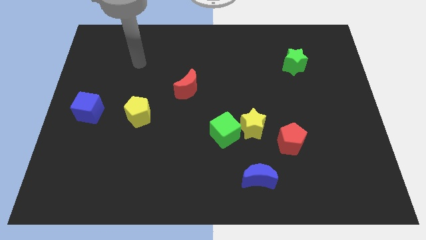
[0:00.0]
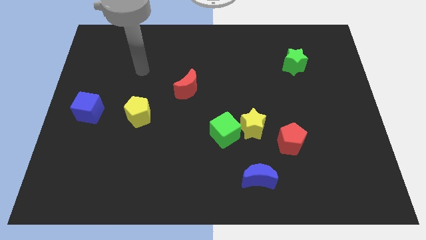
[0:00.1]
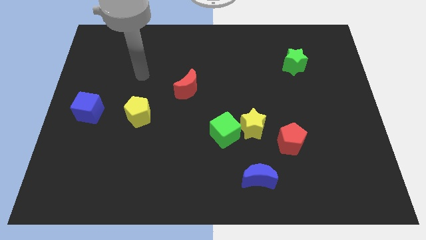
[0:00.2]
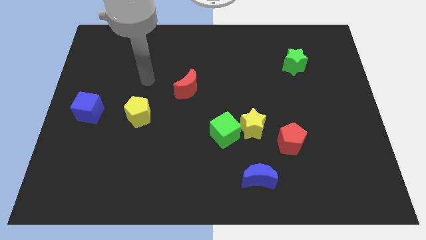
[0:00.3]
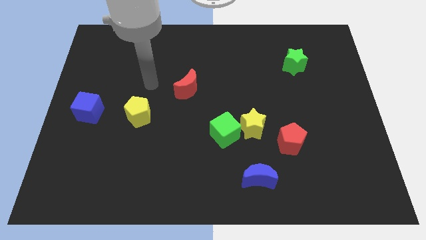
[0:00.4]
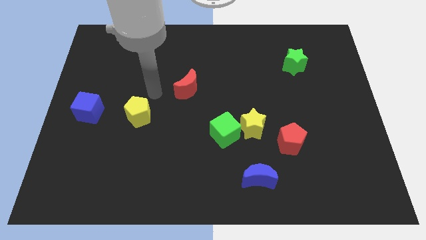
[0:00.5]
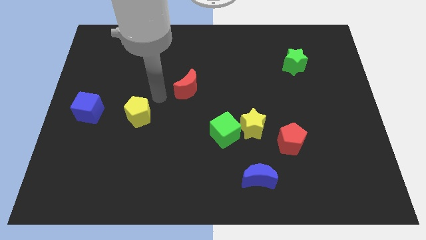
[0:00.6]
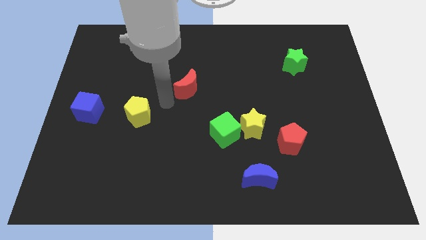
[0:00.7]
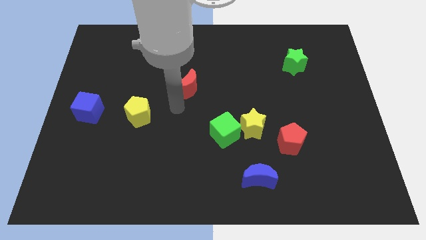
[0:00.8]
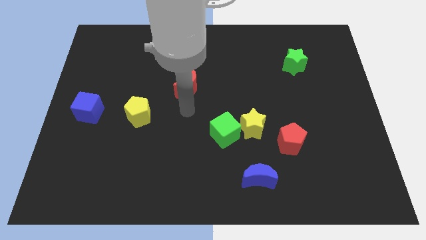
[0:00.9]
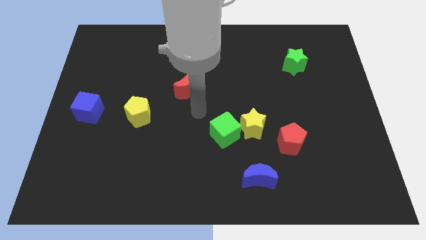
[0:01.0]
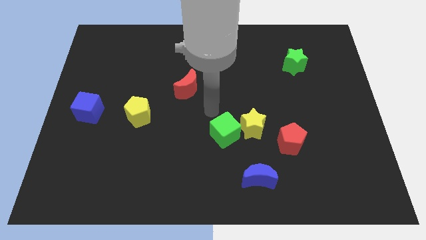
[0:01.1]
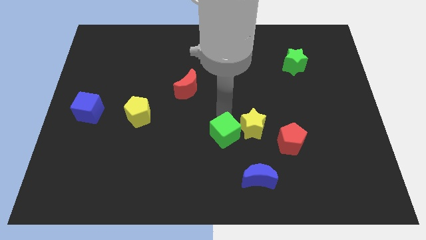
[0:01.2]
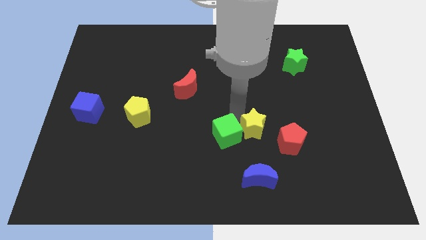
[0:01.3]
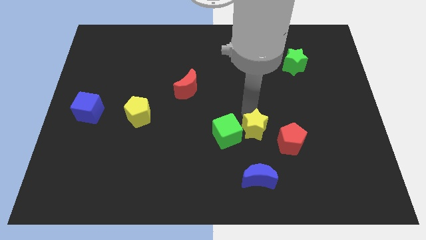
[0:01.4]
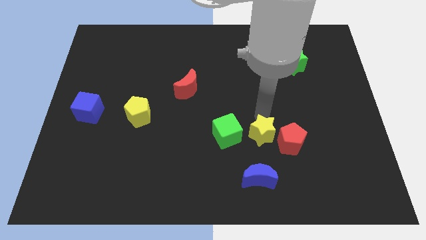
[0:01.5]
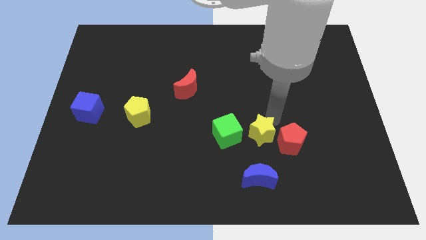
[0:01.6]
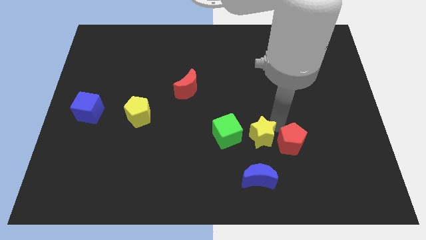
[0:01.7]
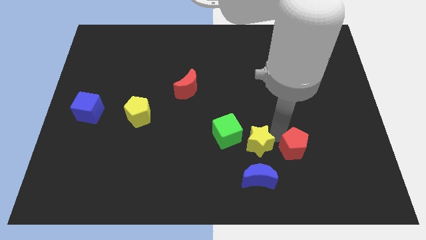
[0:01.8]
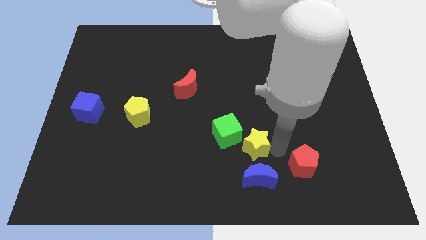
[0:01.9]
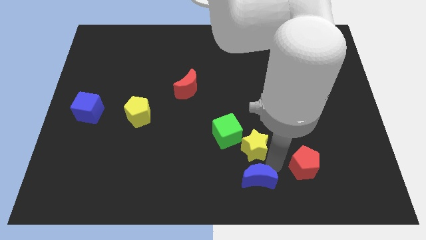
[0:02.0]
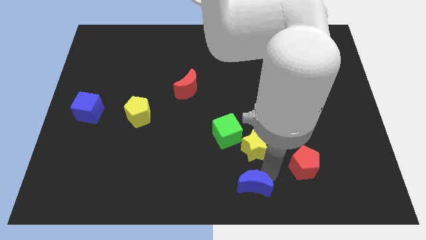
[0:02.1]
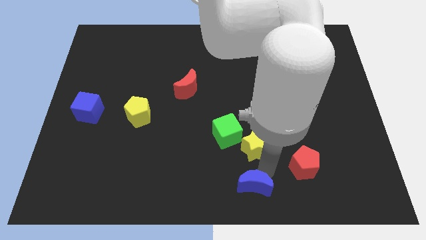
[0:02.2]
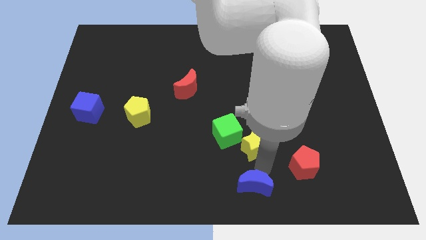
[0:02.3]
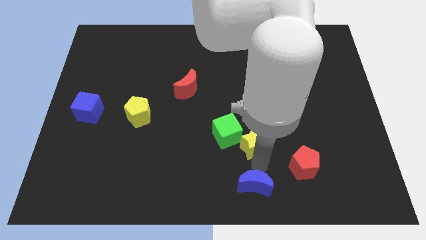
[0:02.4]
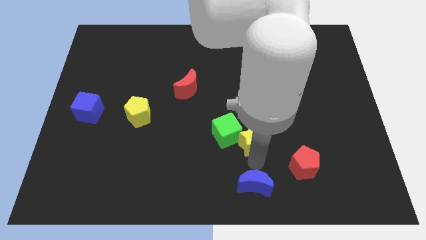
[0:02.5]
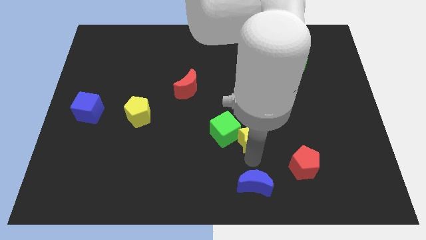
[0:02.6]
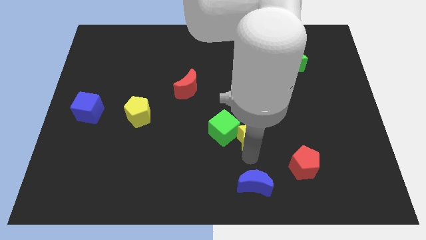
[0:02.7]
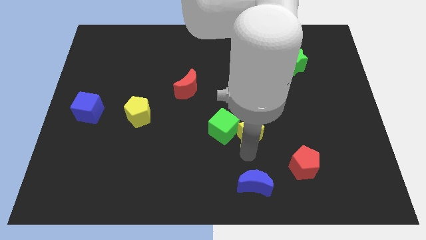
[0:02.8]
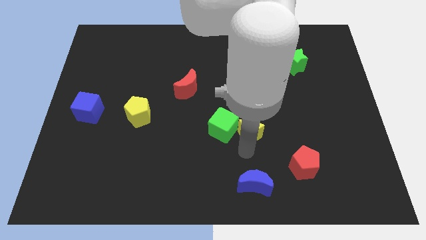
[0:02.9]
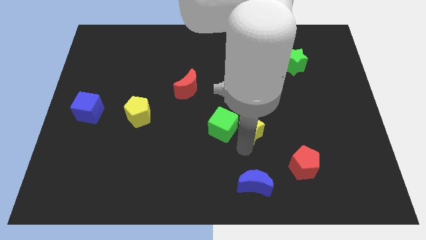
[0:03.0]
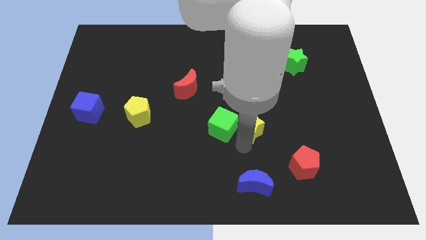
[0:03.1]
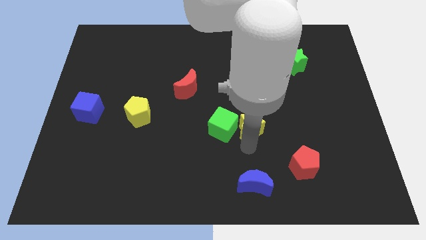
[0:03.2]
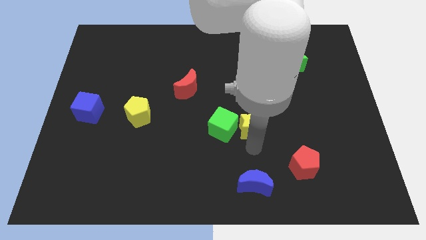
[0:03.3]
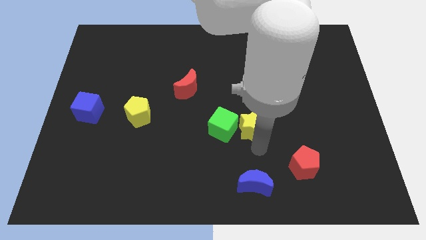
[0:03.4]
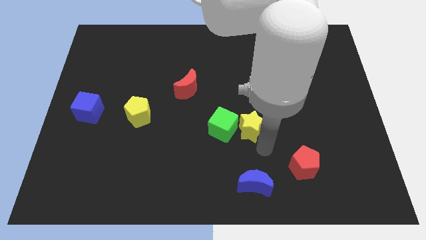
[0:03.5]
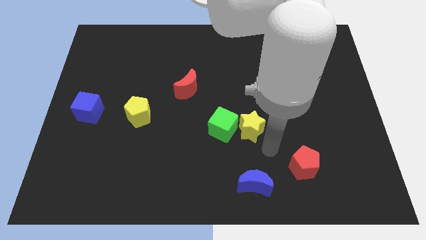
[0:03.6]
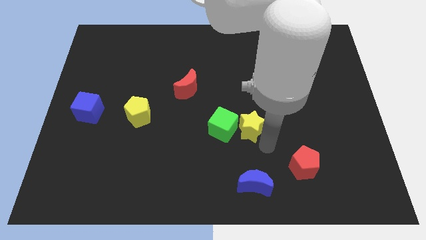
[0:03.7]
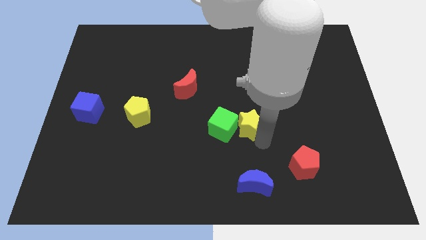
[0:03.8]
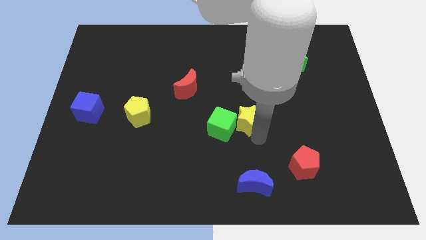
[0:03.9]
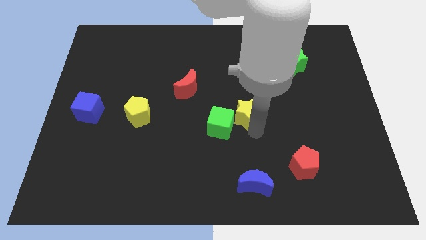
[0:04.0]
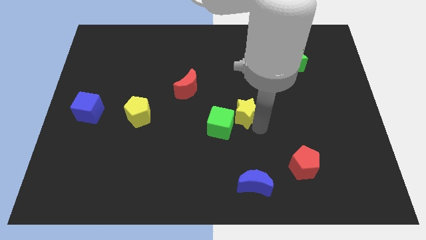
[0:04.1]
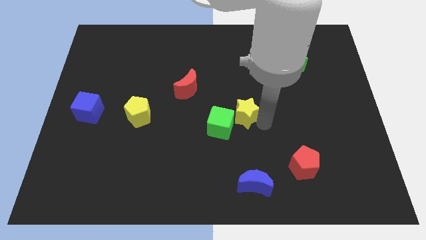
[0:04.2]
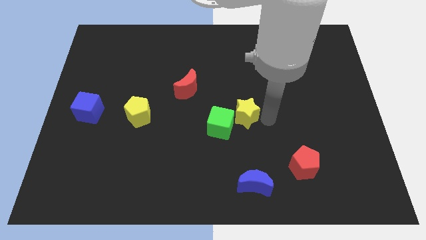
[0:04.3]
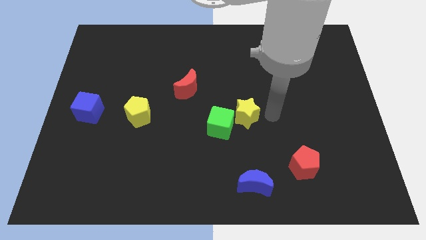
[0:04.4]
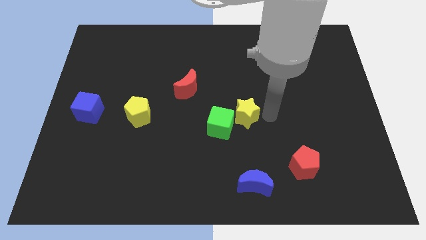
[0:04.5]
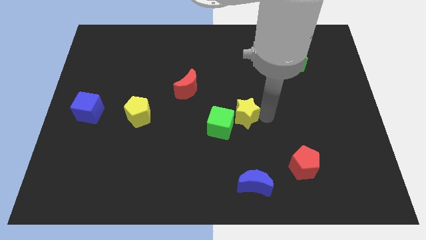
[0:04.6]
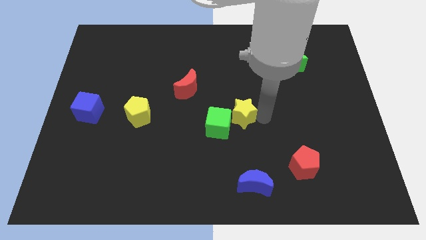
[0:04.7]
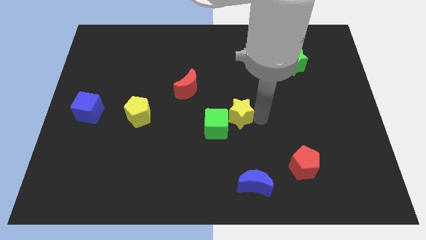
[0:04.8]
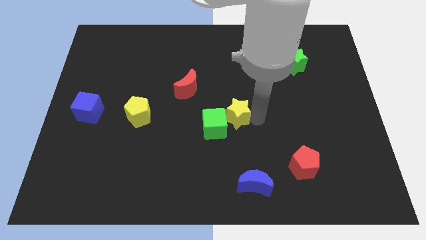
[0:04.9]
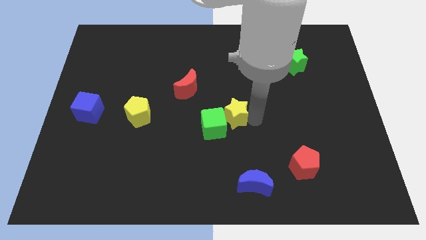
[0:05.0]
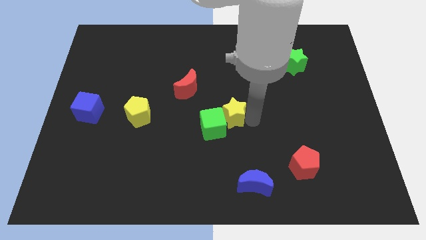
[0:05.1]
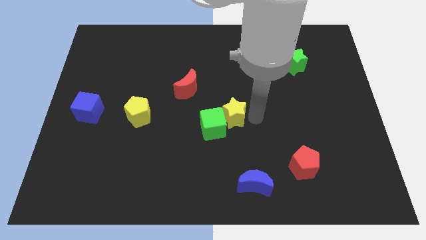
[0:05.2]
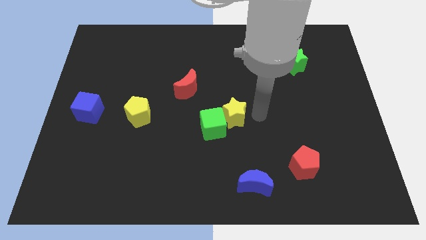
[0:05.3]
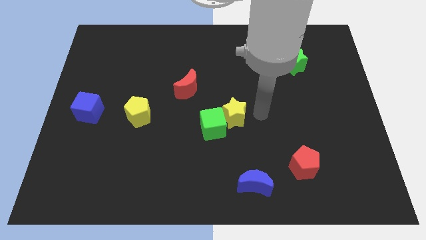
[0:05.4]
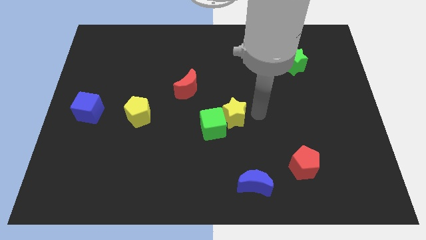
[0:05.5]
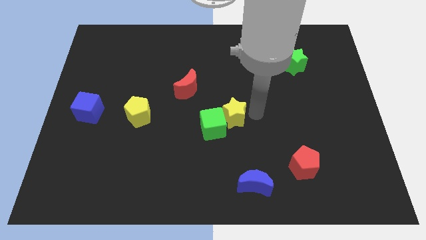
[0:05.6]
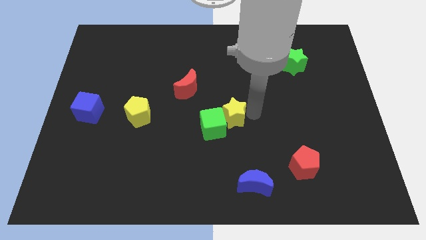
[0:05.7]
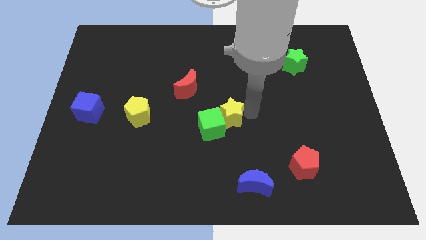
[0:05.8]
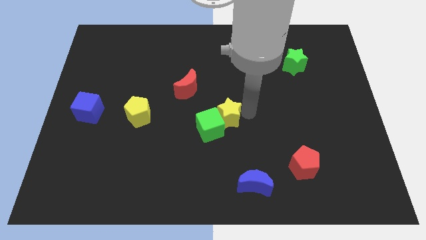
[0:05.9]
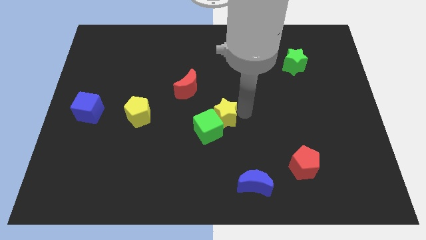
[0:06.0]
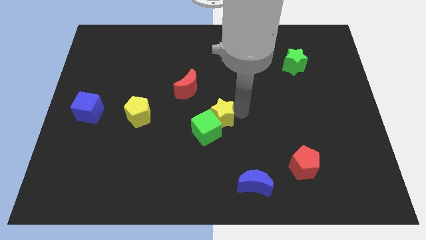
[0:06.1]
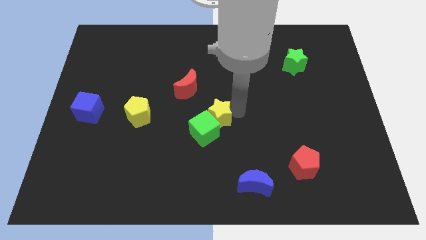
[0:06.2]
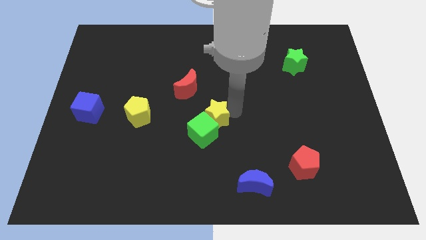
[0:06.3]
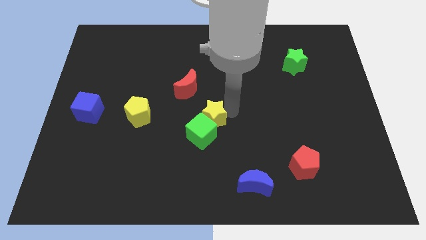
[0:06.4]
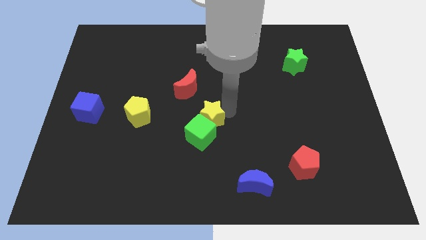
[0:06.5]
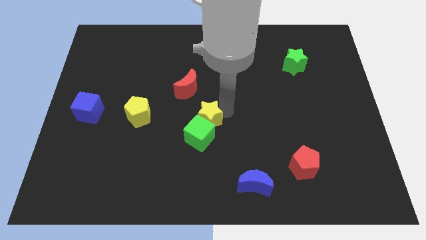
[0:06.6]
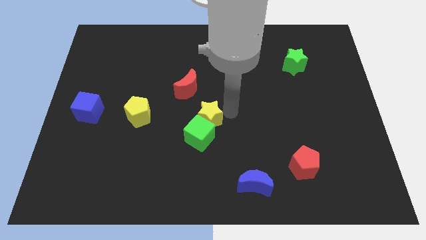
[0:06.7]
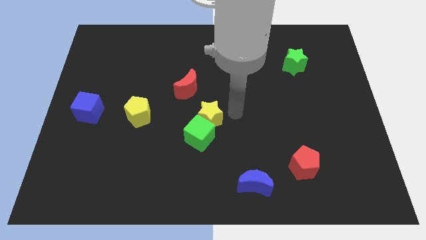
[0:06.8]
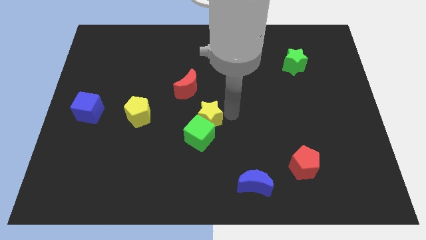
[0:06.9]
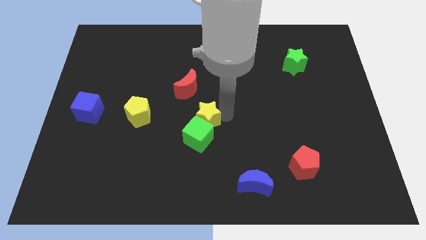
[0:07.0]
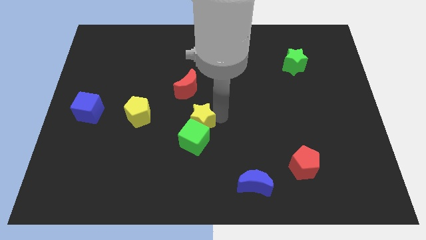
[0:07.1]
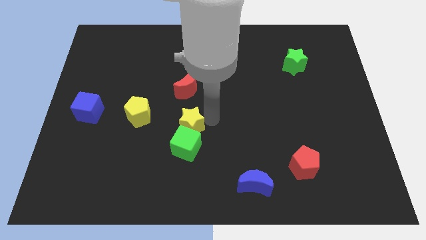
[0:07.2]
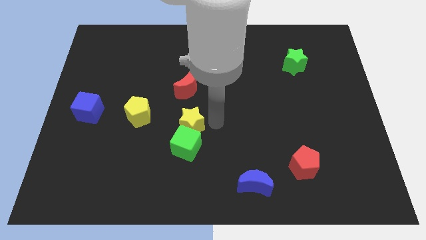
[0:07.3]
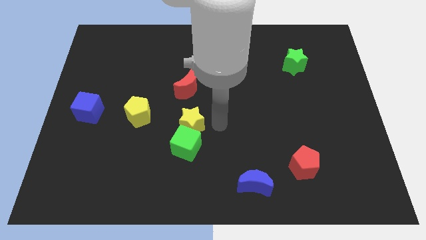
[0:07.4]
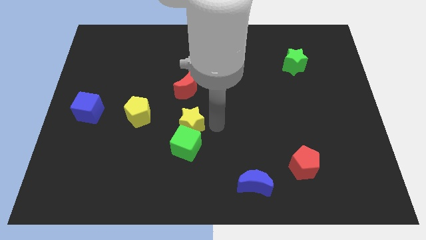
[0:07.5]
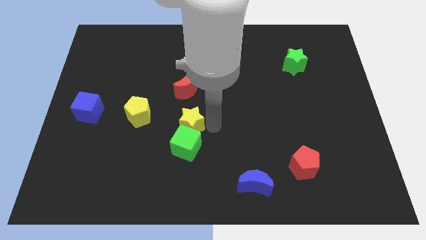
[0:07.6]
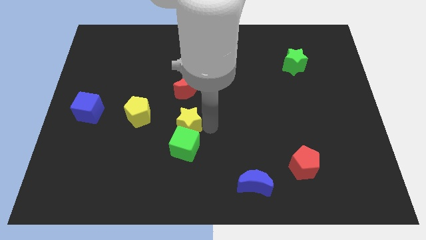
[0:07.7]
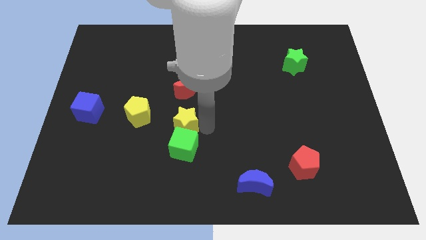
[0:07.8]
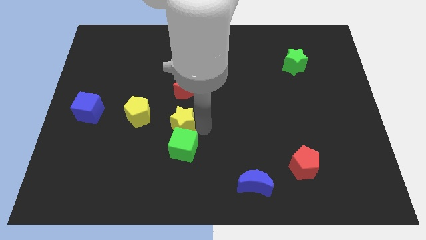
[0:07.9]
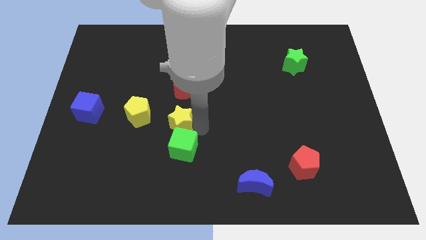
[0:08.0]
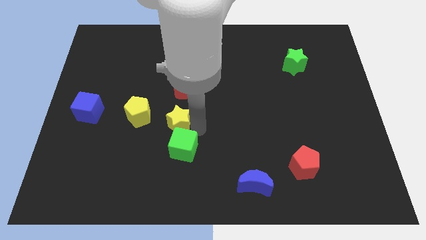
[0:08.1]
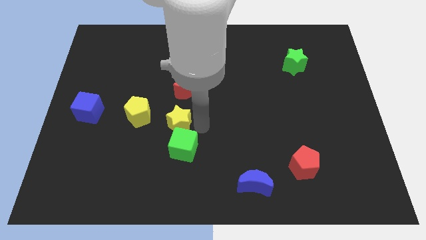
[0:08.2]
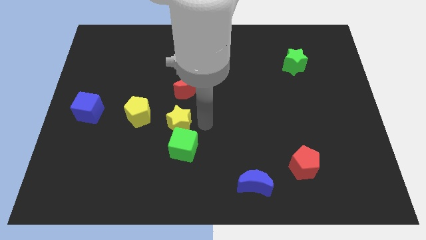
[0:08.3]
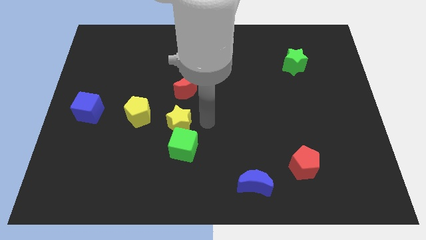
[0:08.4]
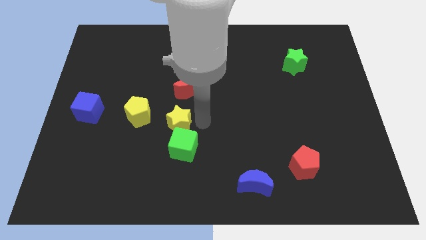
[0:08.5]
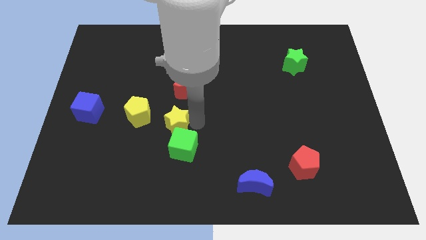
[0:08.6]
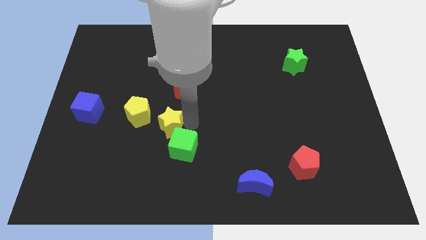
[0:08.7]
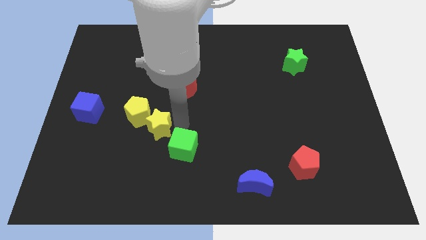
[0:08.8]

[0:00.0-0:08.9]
slide the yellow star left
